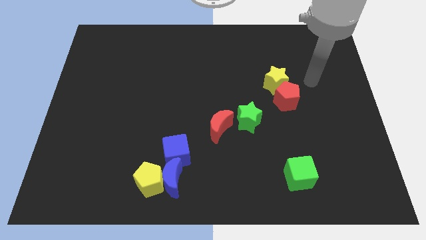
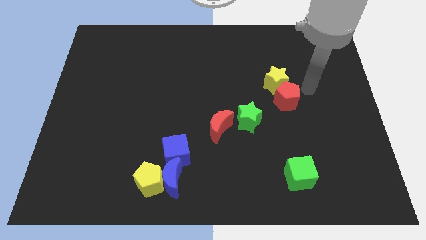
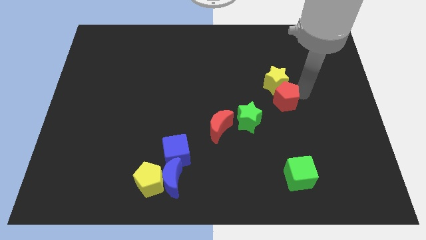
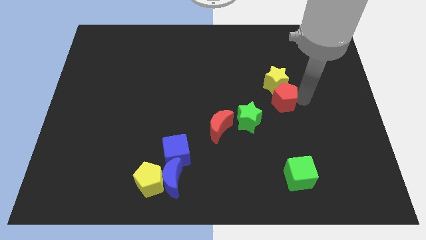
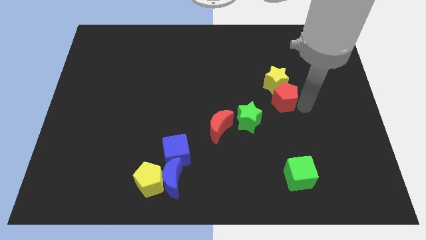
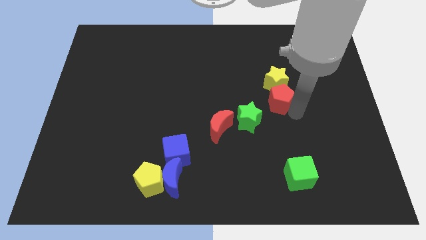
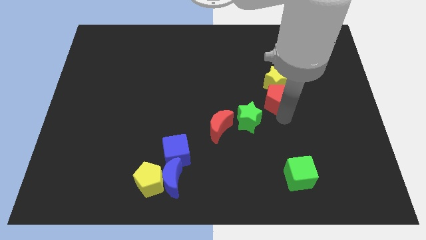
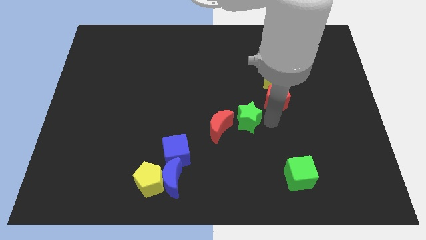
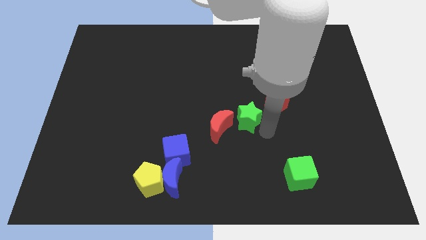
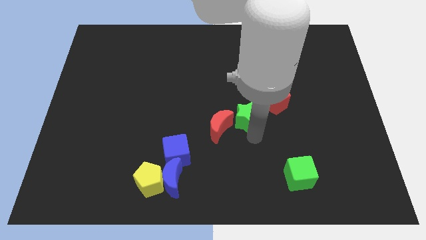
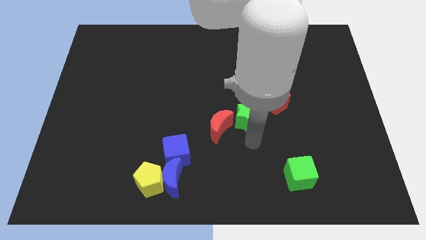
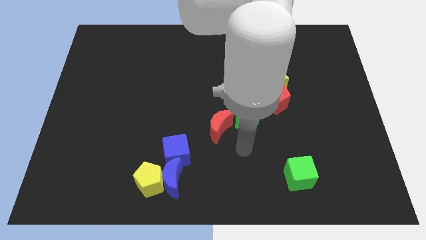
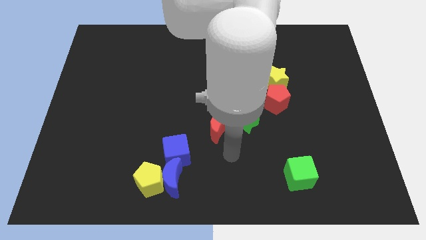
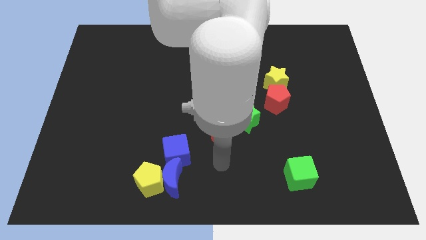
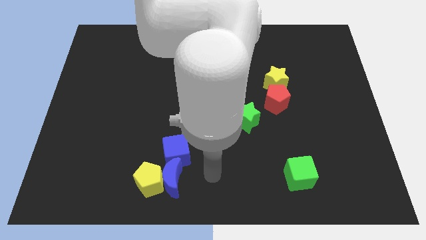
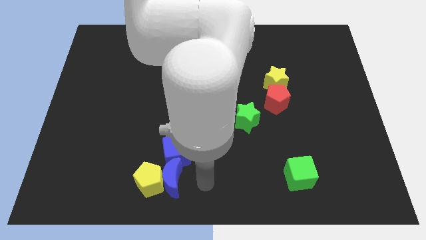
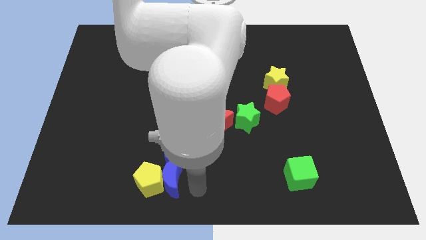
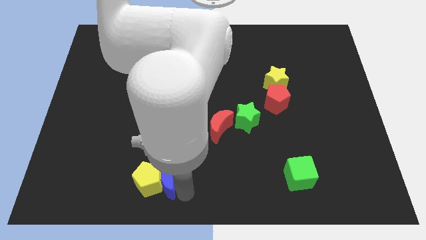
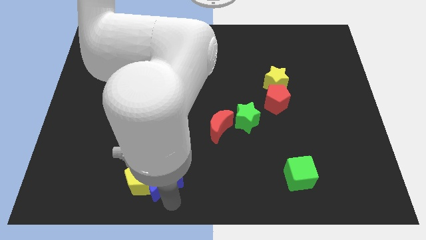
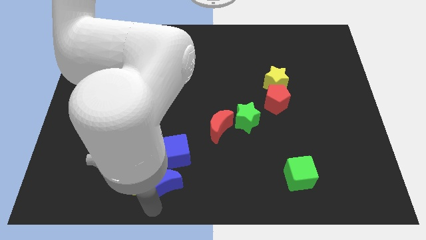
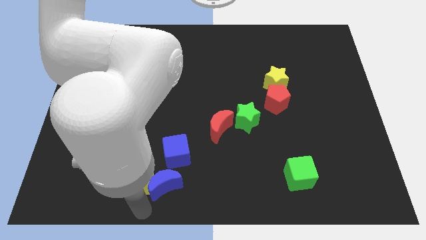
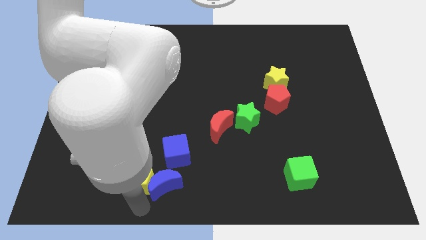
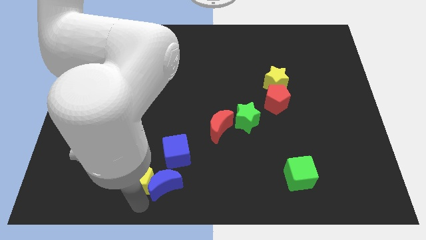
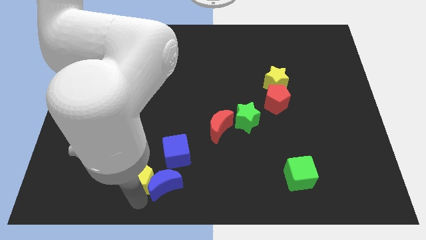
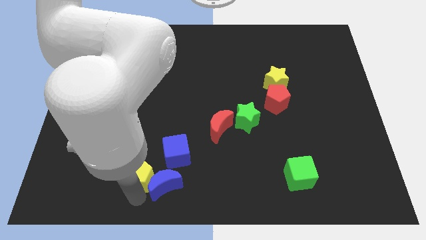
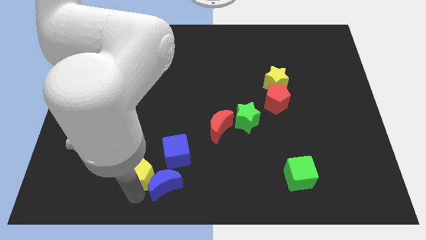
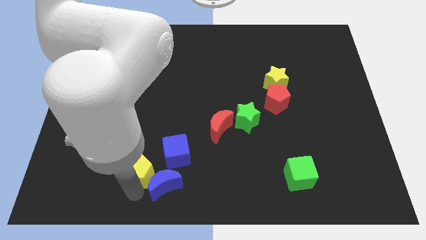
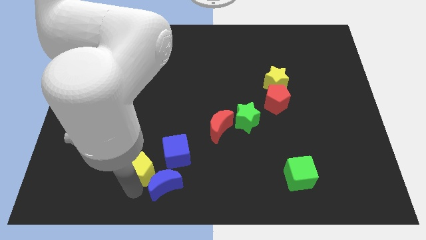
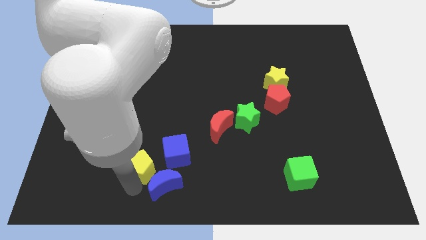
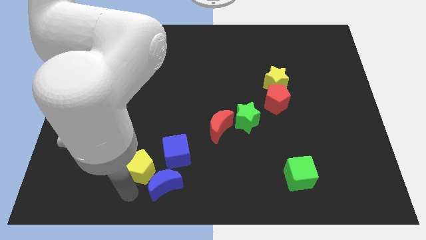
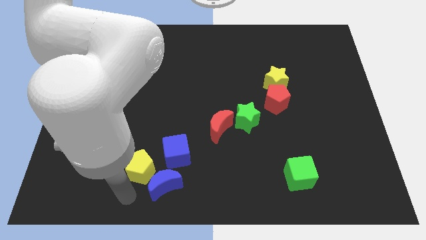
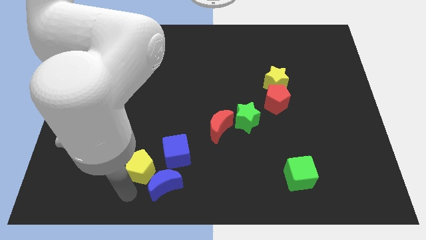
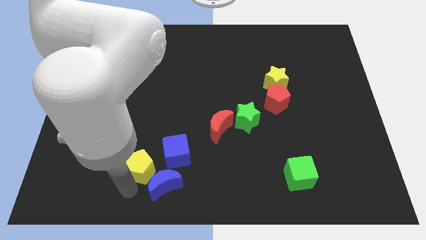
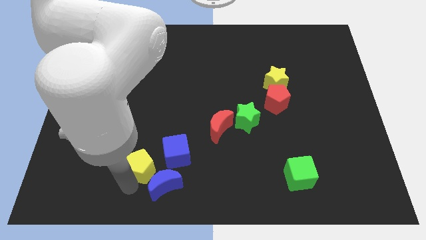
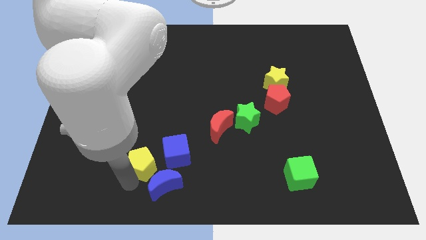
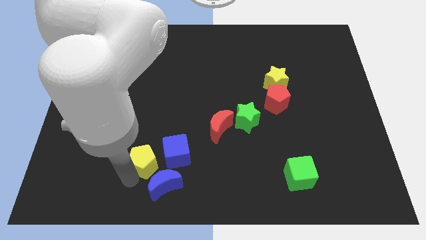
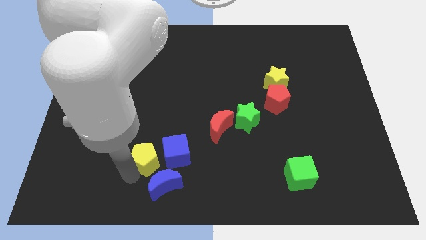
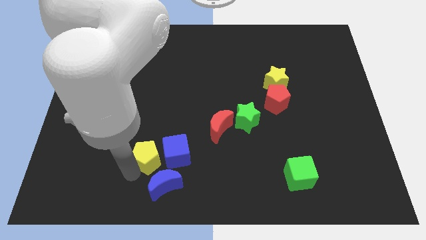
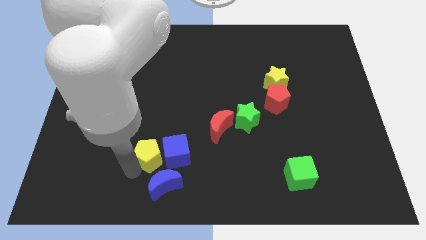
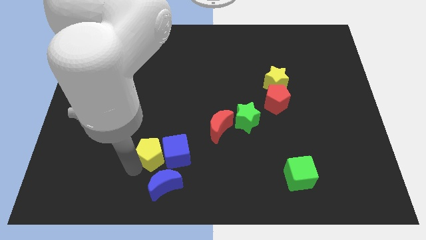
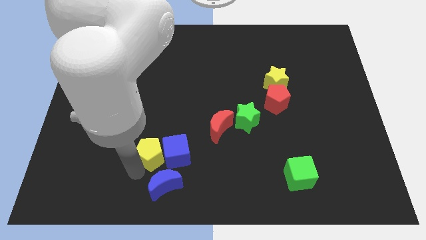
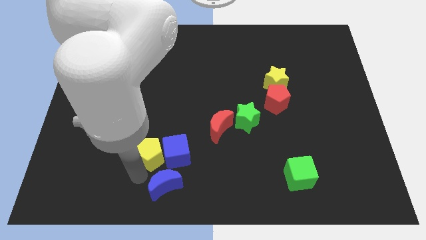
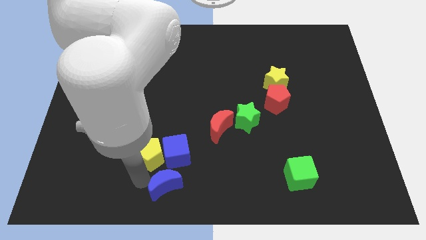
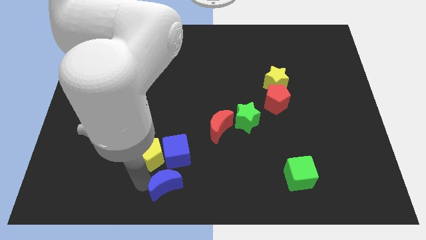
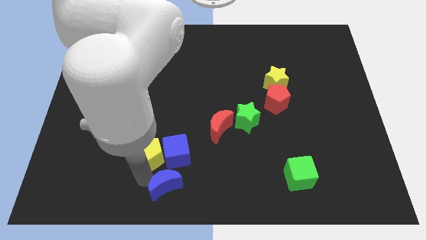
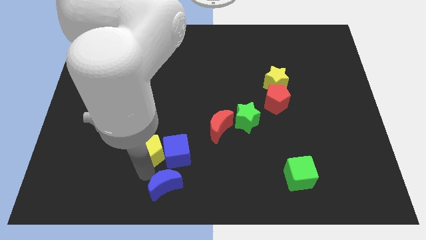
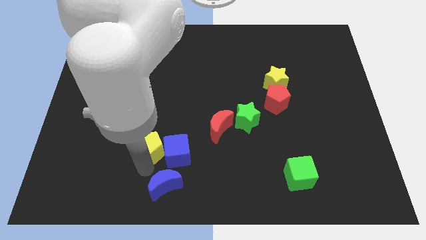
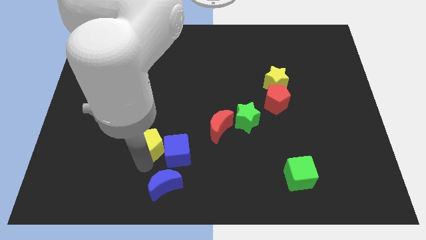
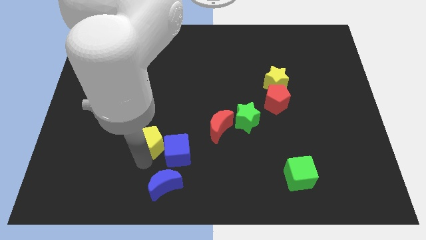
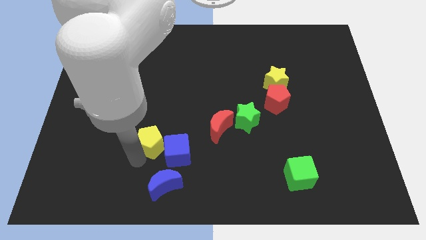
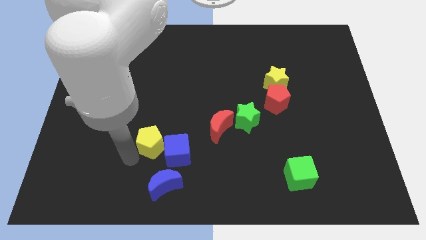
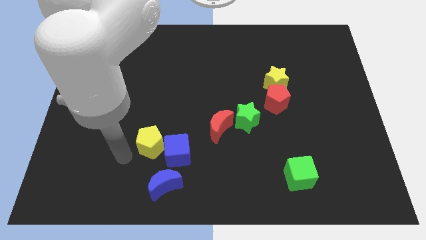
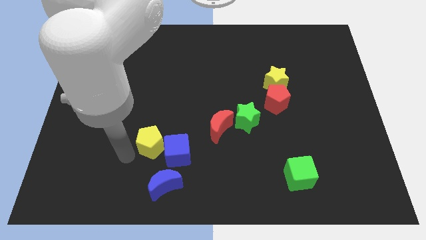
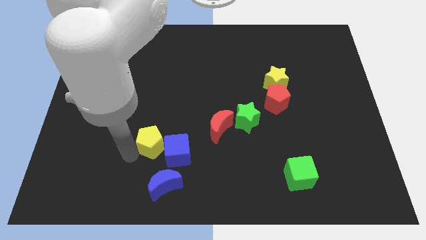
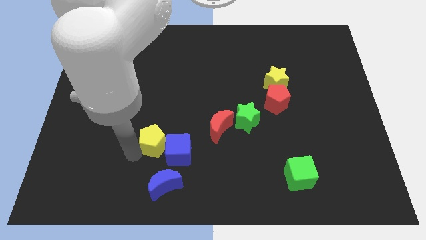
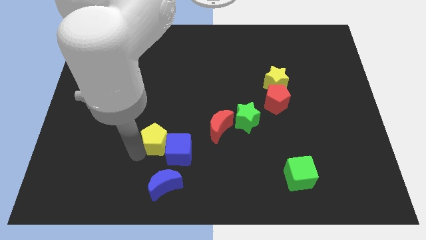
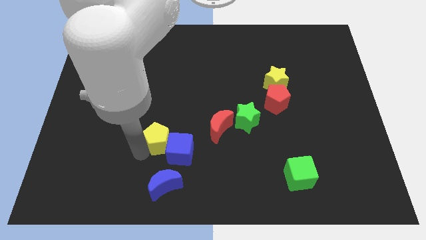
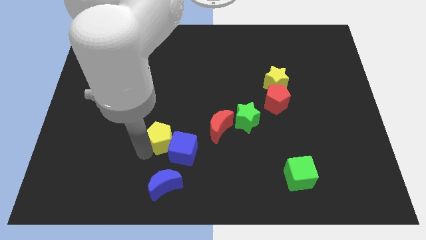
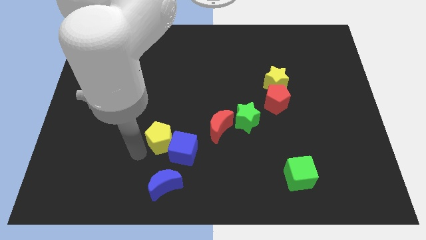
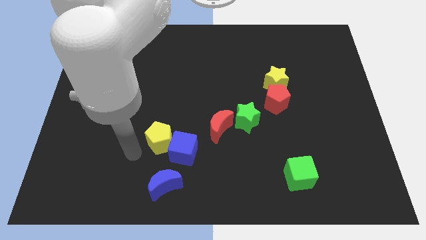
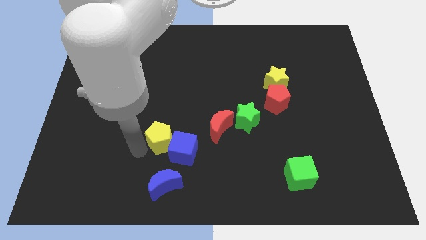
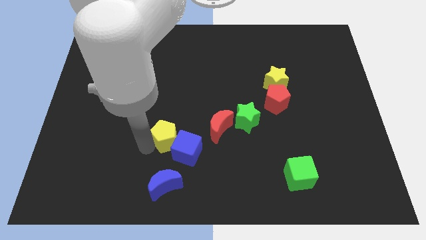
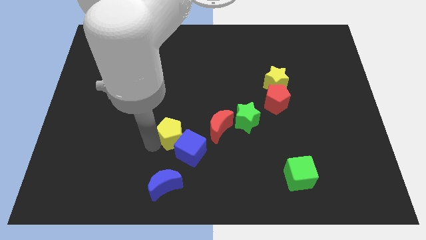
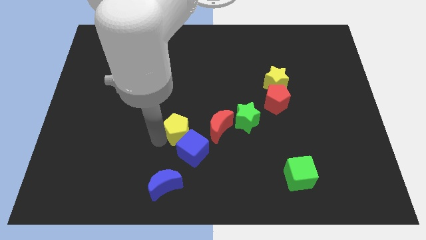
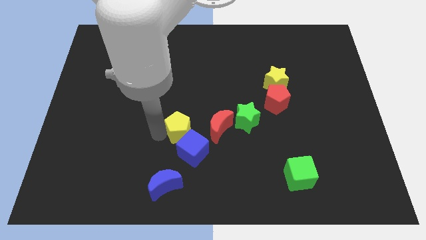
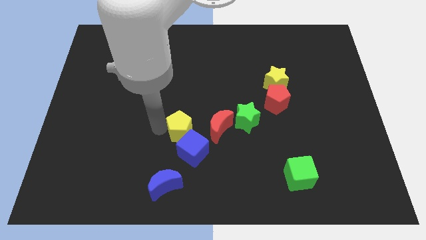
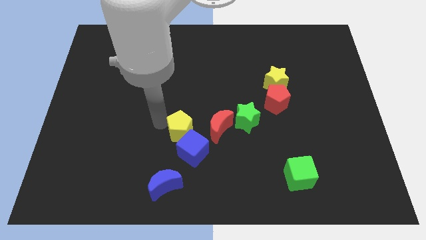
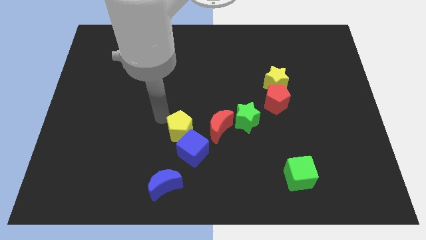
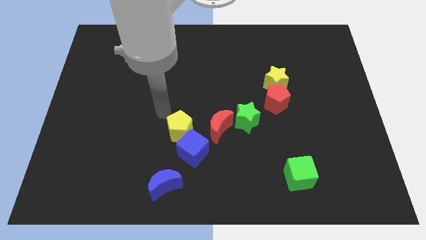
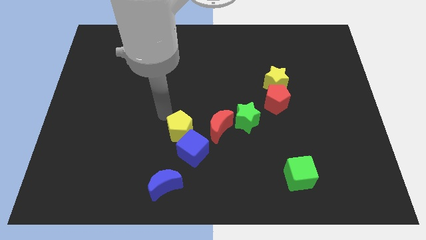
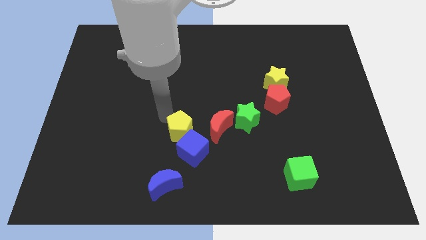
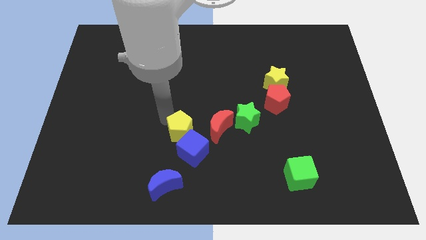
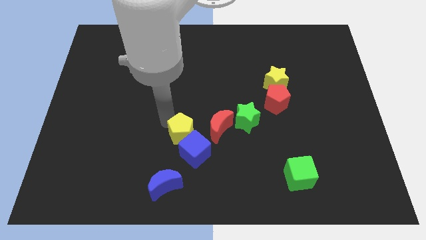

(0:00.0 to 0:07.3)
move the yellow pentagon to the bottom left of the red moon

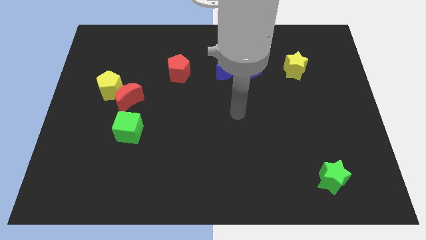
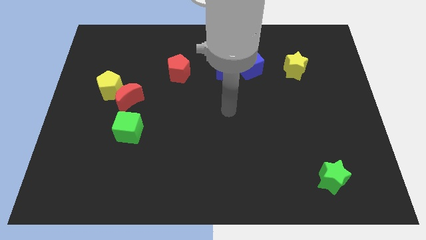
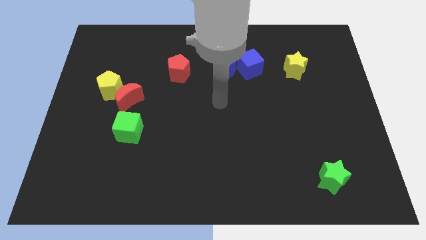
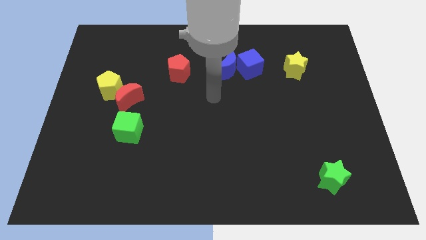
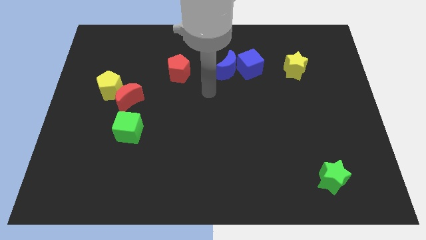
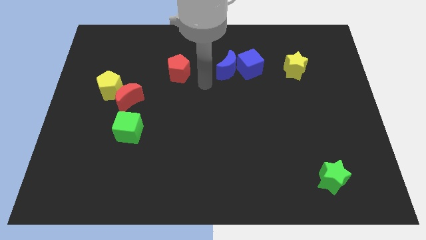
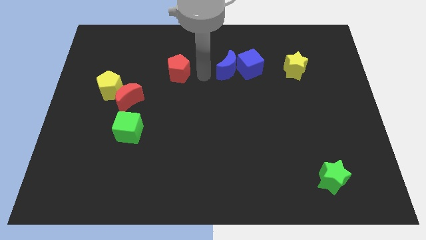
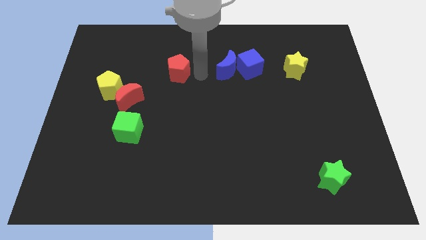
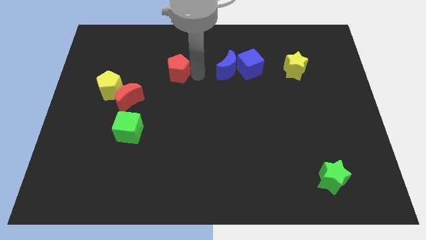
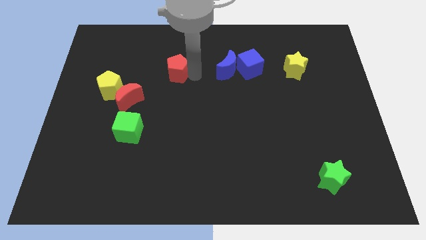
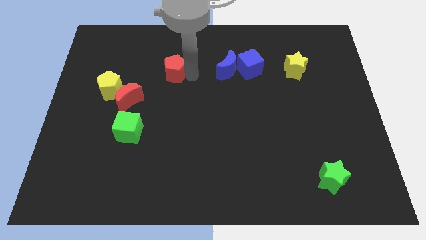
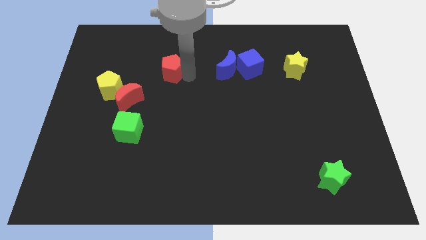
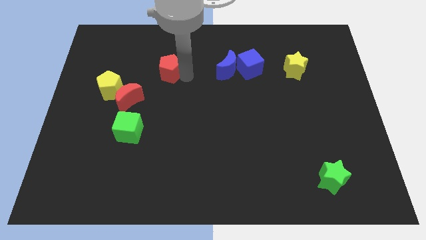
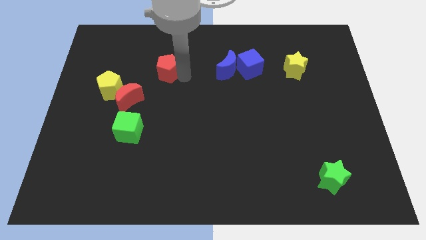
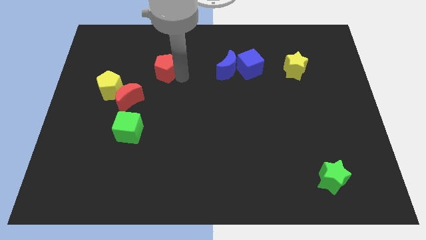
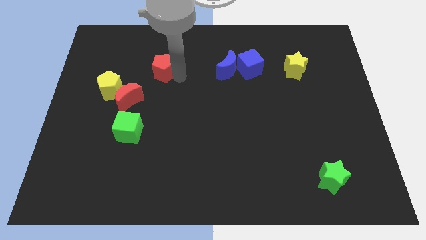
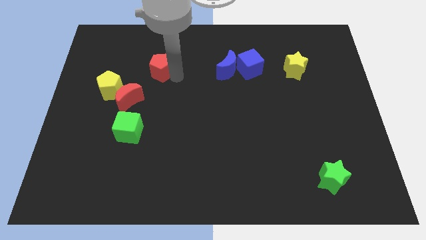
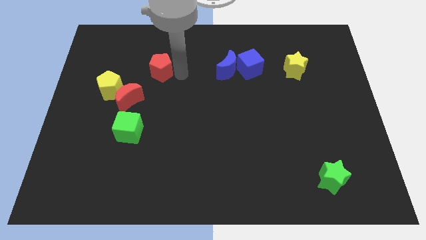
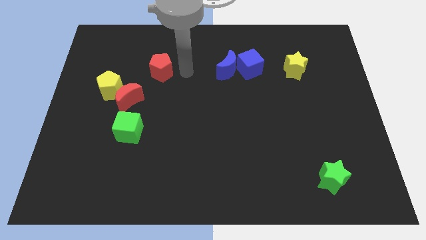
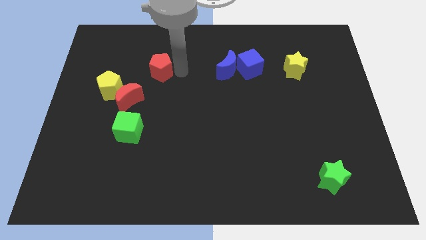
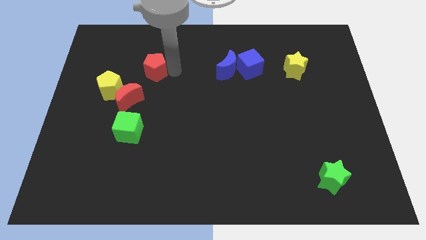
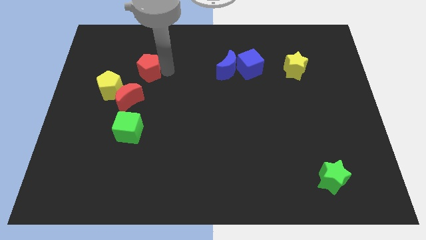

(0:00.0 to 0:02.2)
slide the red pentagon to the top side of the red moon
